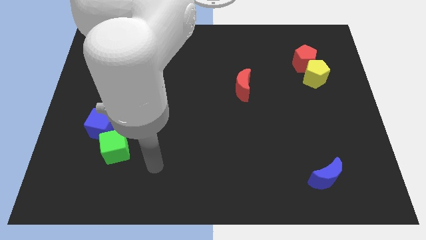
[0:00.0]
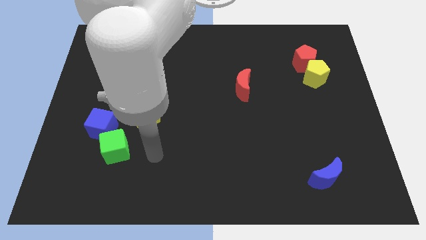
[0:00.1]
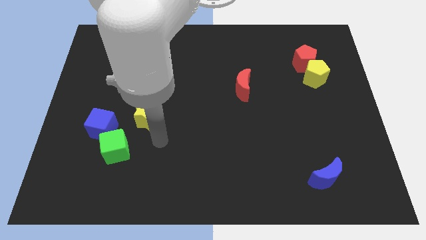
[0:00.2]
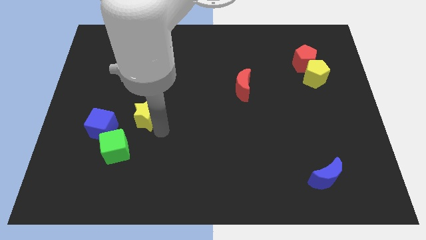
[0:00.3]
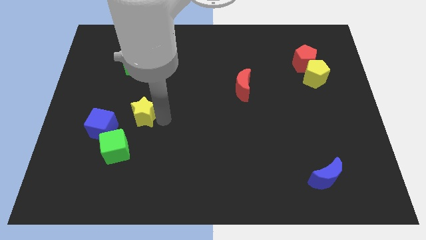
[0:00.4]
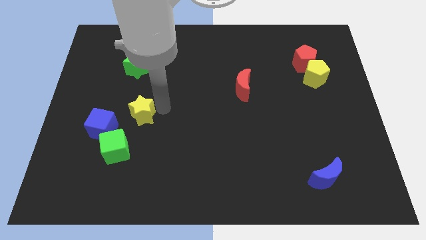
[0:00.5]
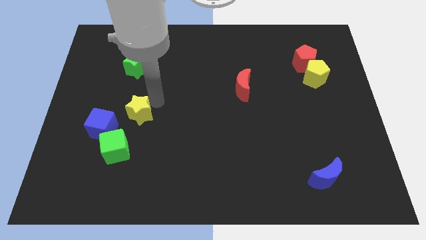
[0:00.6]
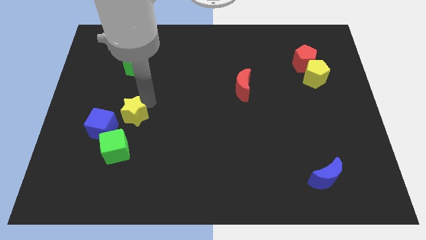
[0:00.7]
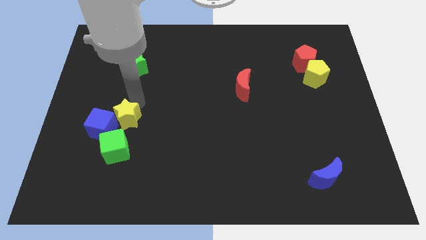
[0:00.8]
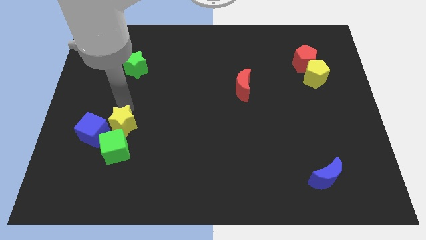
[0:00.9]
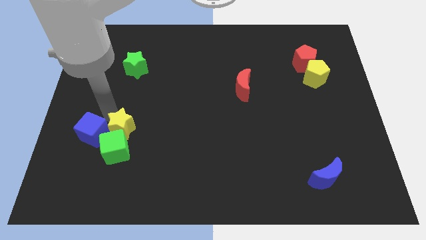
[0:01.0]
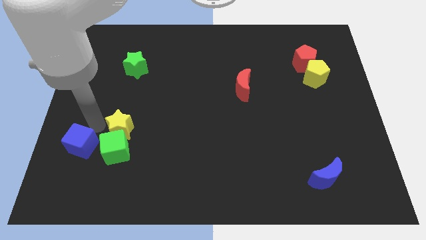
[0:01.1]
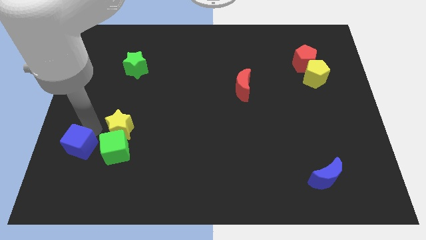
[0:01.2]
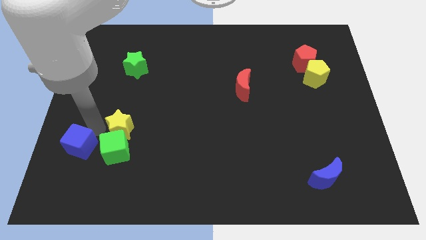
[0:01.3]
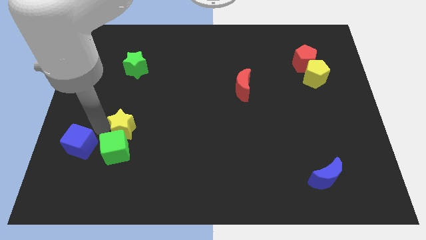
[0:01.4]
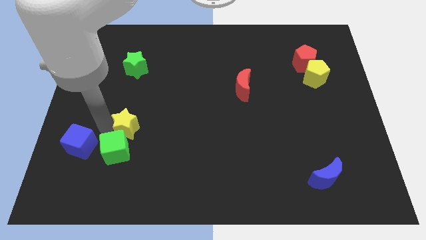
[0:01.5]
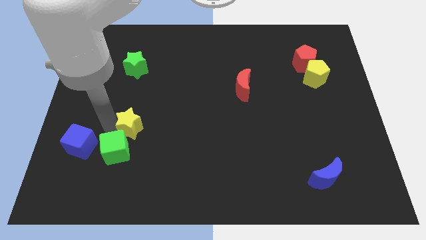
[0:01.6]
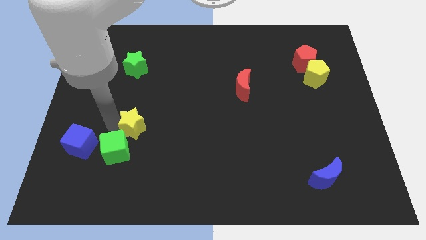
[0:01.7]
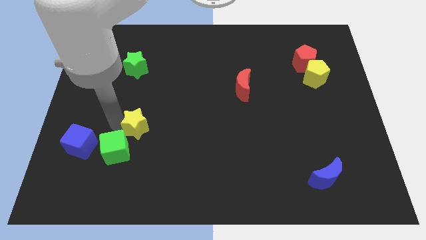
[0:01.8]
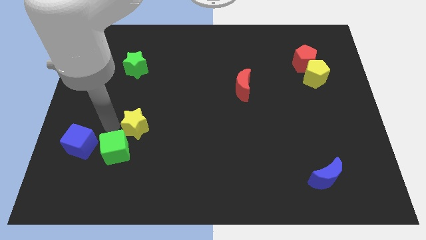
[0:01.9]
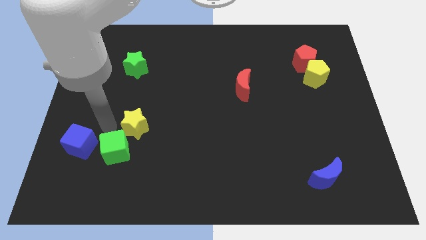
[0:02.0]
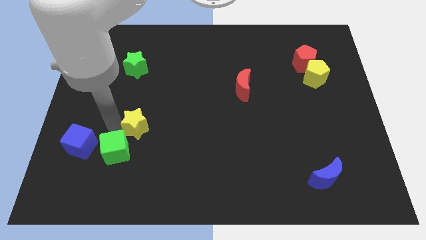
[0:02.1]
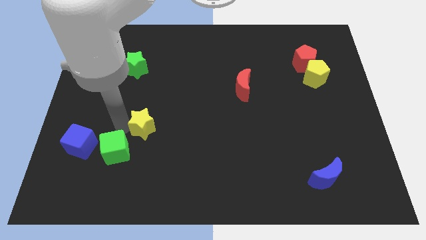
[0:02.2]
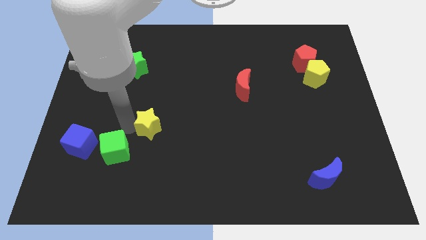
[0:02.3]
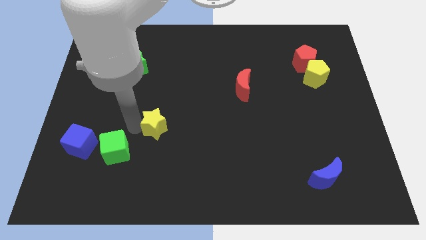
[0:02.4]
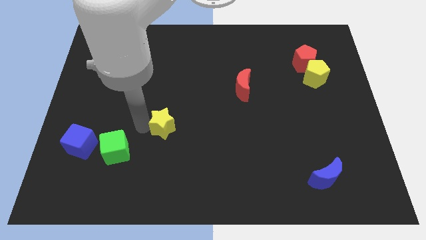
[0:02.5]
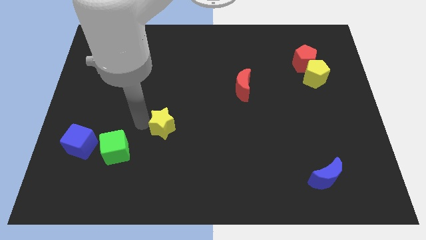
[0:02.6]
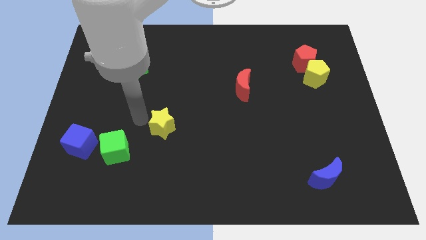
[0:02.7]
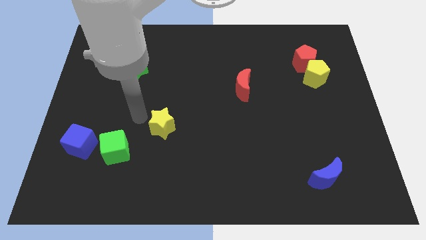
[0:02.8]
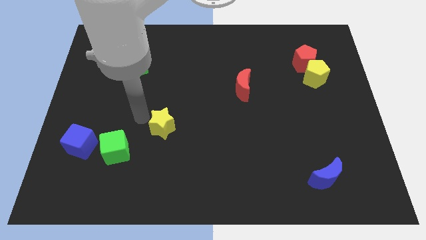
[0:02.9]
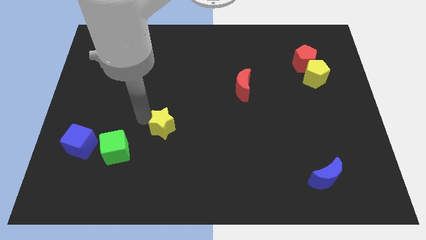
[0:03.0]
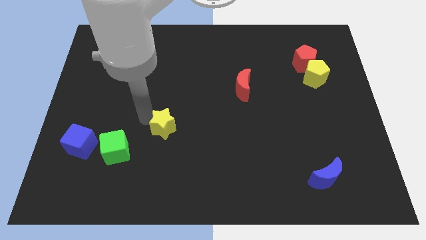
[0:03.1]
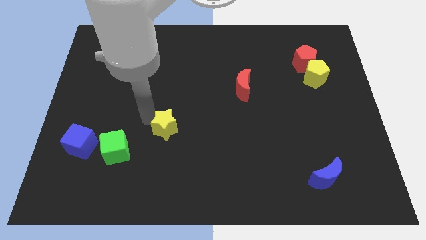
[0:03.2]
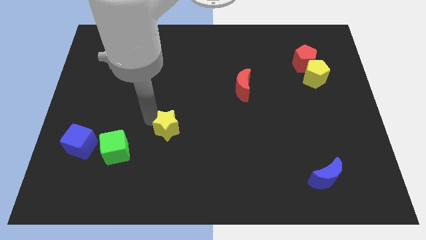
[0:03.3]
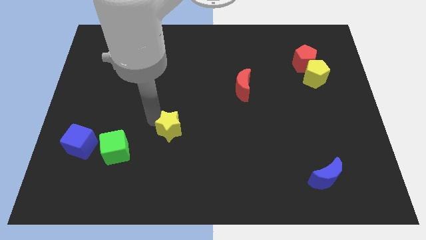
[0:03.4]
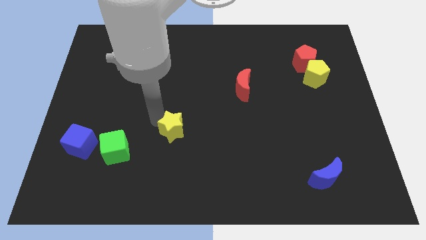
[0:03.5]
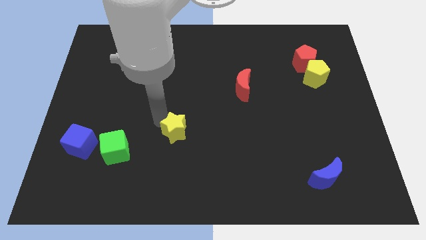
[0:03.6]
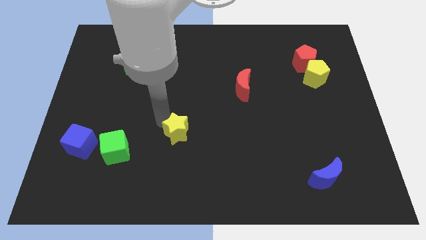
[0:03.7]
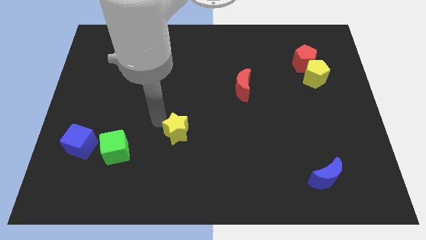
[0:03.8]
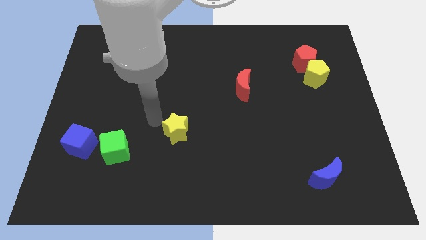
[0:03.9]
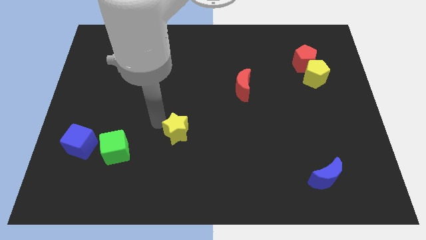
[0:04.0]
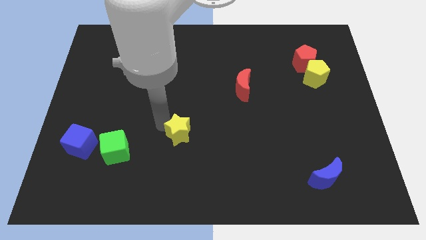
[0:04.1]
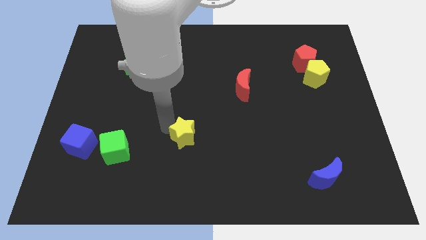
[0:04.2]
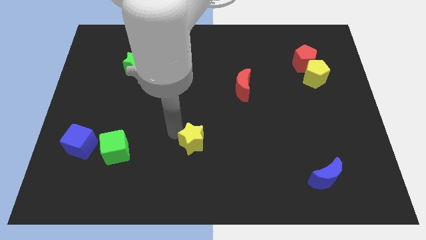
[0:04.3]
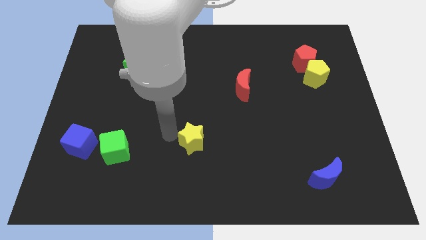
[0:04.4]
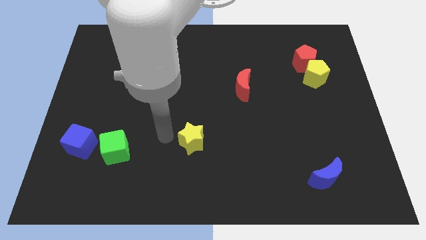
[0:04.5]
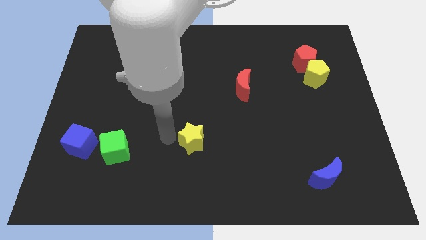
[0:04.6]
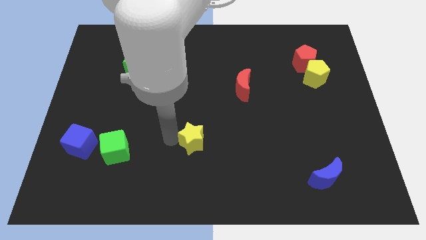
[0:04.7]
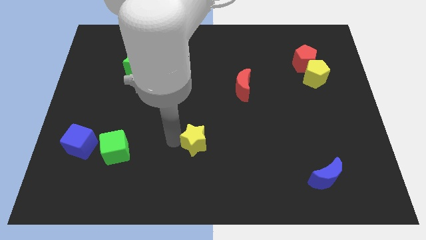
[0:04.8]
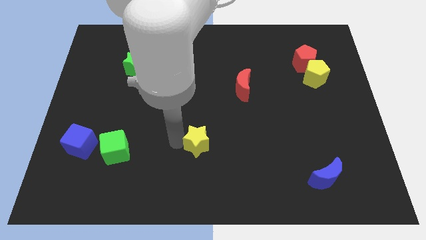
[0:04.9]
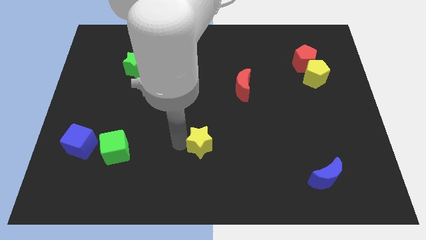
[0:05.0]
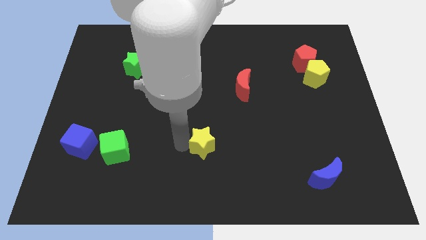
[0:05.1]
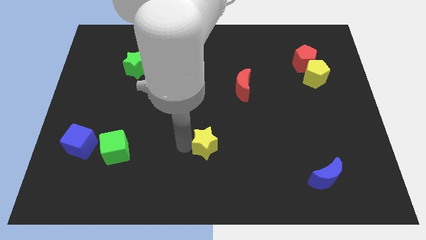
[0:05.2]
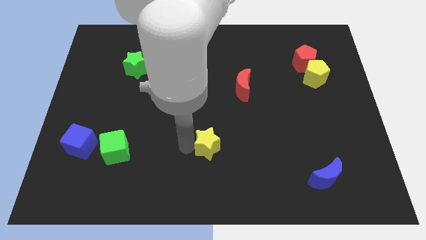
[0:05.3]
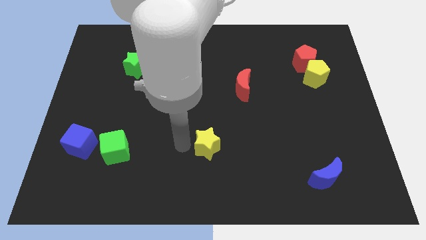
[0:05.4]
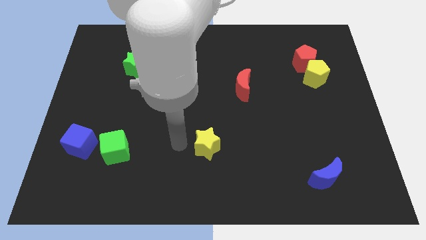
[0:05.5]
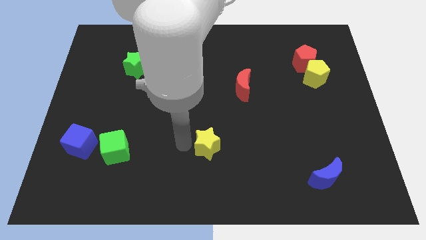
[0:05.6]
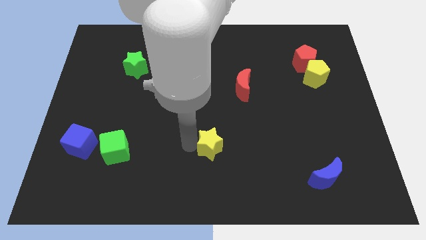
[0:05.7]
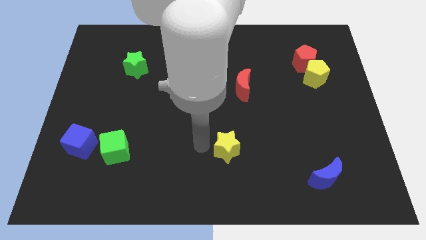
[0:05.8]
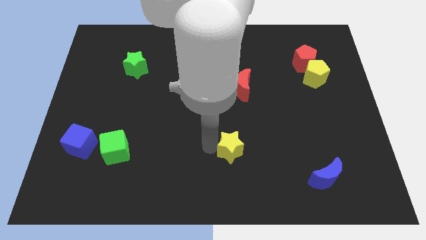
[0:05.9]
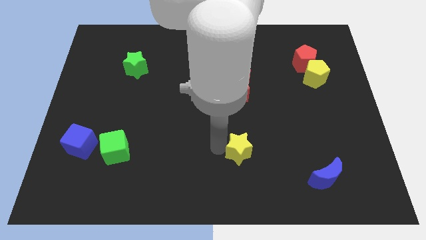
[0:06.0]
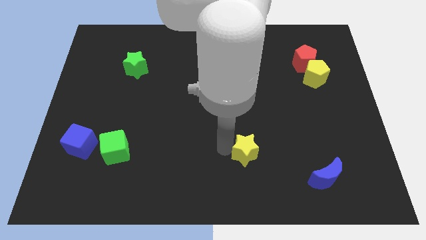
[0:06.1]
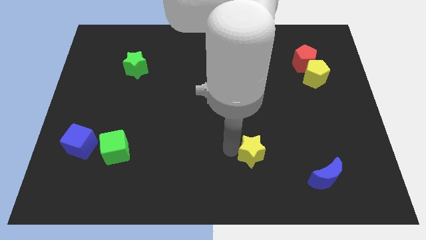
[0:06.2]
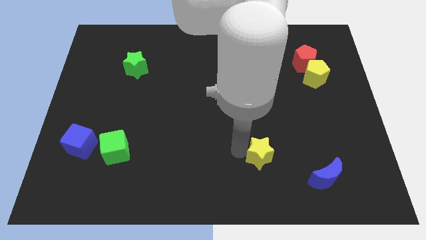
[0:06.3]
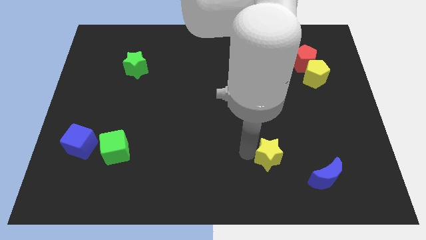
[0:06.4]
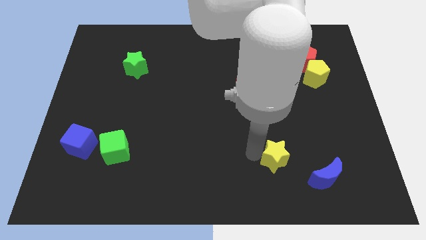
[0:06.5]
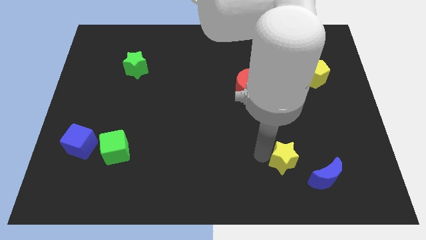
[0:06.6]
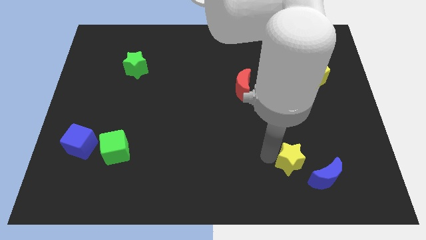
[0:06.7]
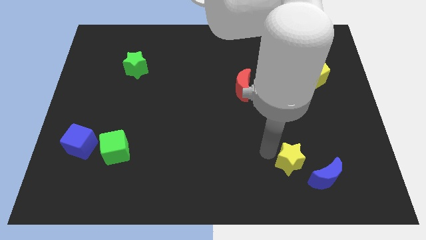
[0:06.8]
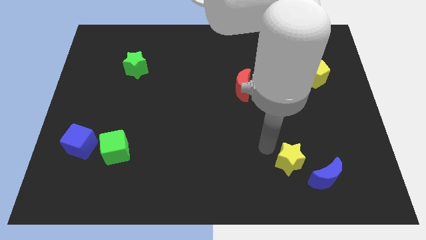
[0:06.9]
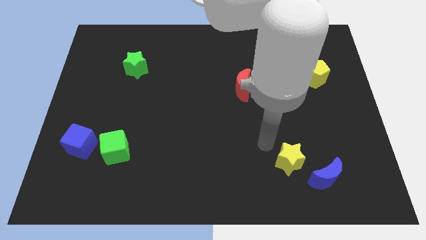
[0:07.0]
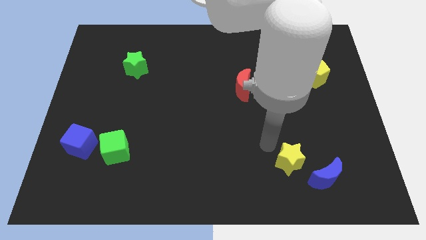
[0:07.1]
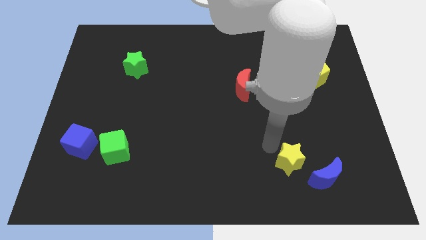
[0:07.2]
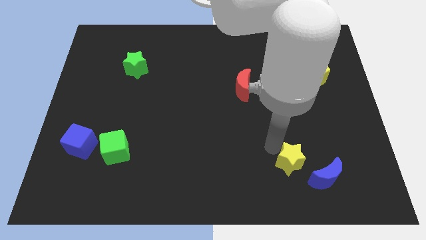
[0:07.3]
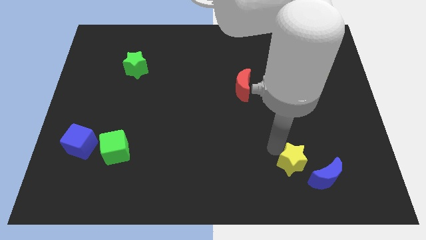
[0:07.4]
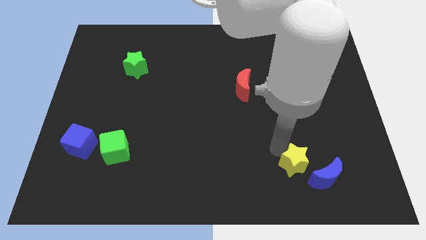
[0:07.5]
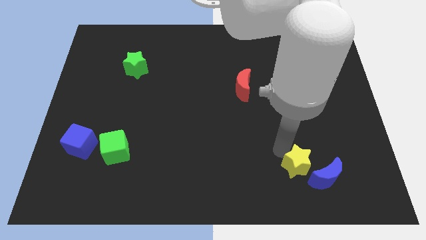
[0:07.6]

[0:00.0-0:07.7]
push the yellow star next to the blue moon
